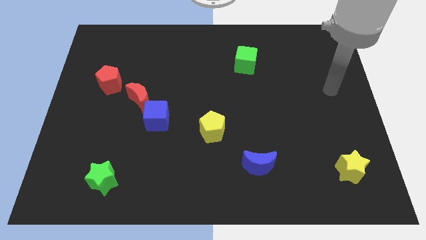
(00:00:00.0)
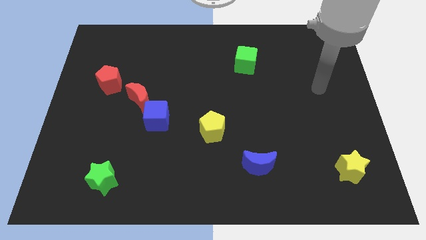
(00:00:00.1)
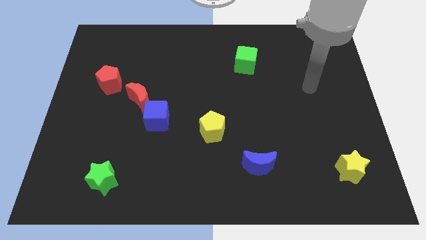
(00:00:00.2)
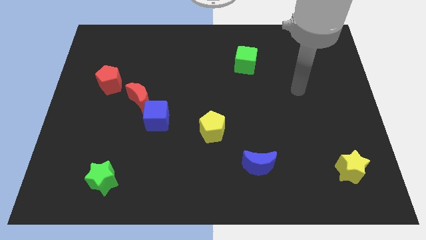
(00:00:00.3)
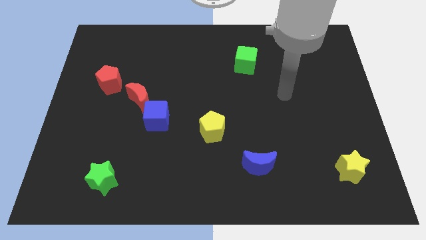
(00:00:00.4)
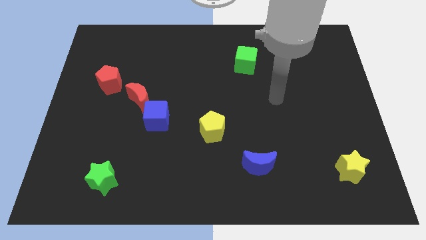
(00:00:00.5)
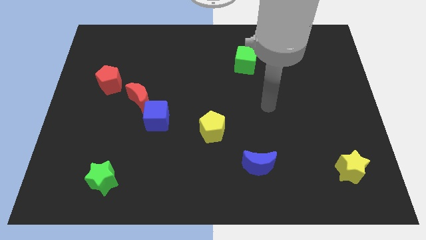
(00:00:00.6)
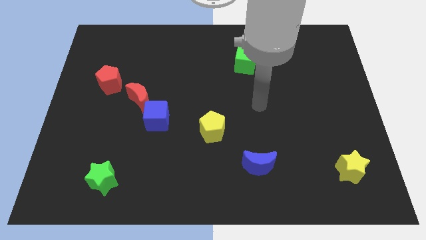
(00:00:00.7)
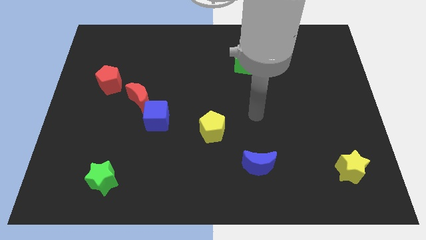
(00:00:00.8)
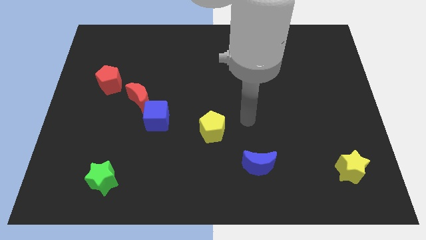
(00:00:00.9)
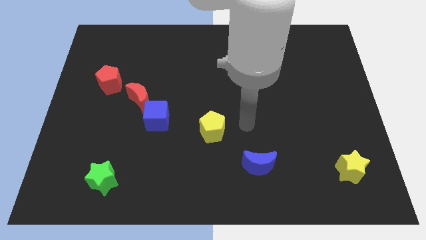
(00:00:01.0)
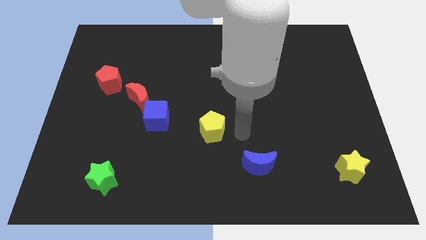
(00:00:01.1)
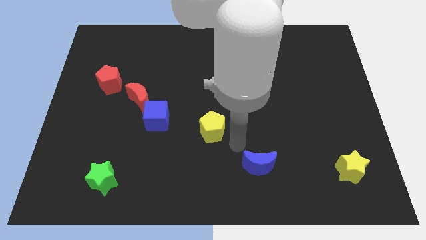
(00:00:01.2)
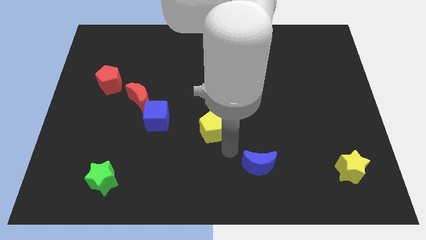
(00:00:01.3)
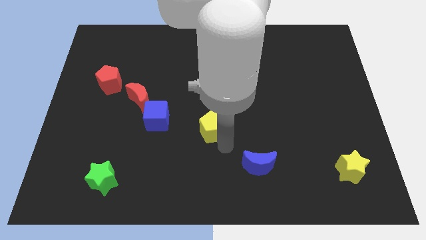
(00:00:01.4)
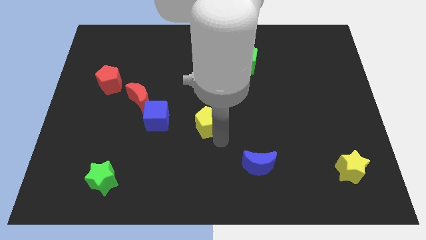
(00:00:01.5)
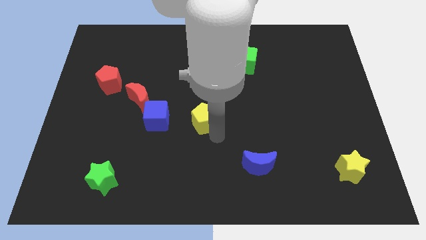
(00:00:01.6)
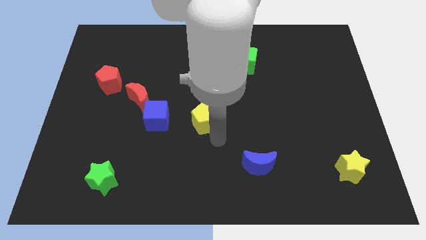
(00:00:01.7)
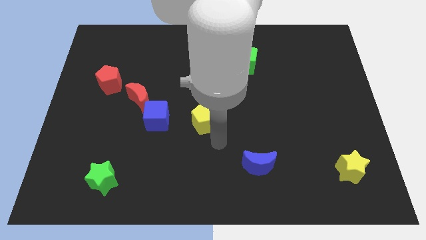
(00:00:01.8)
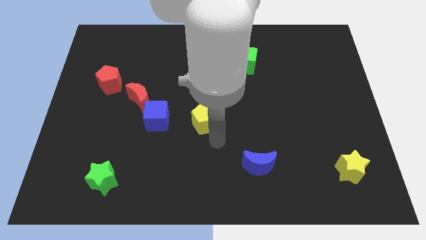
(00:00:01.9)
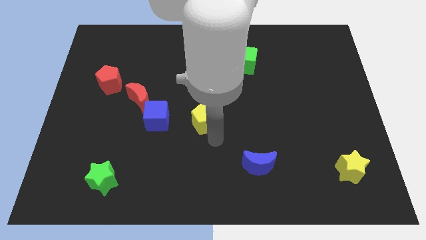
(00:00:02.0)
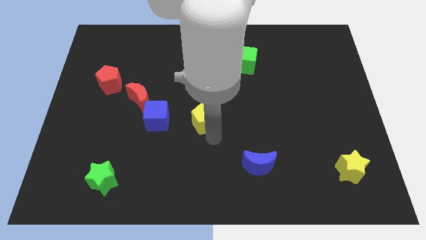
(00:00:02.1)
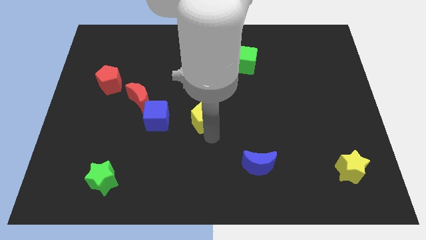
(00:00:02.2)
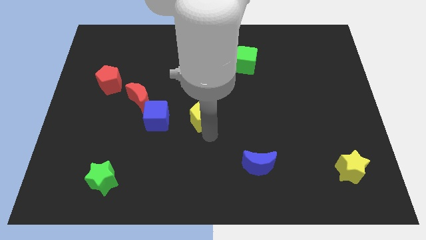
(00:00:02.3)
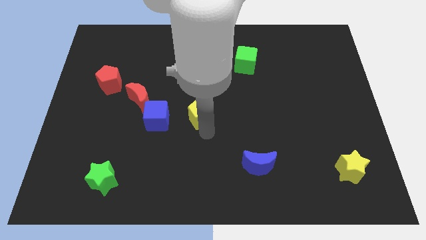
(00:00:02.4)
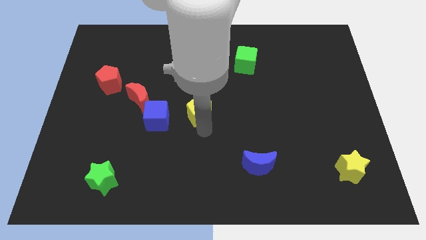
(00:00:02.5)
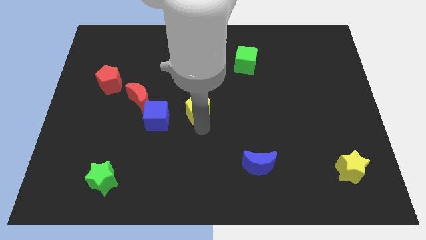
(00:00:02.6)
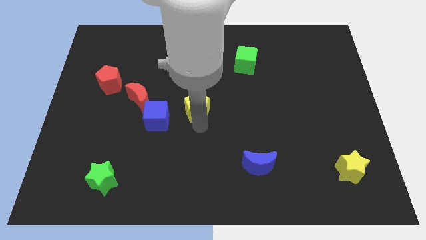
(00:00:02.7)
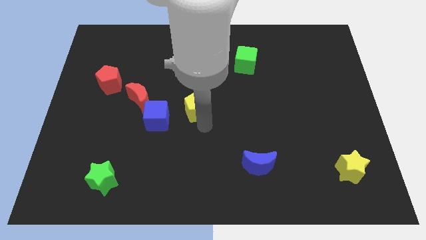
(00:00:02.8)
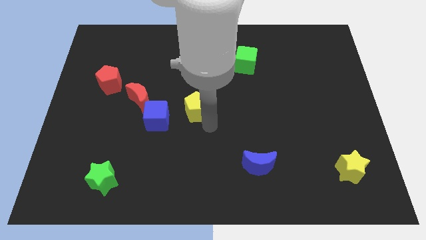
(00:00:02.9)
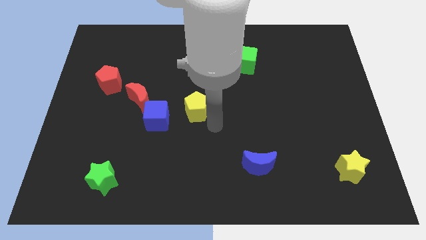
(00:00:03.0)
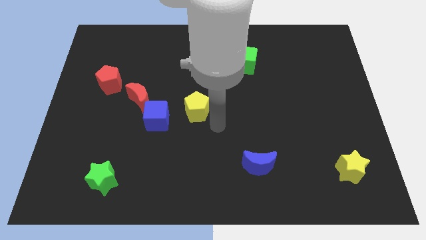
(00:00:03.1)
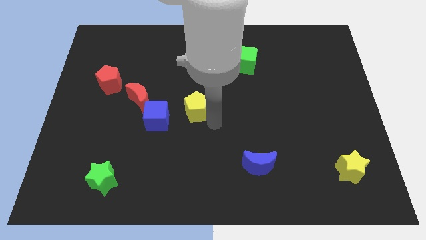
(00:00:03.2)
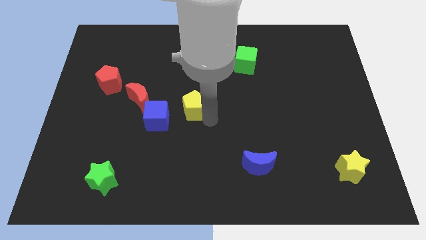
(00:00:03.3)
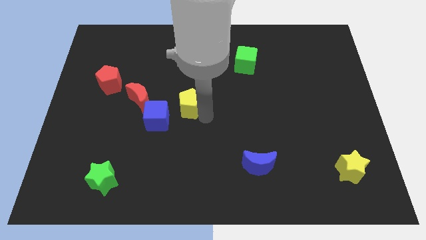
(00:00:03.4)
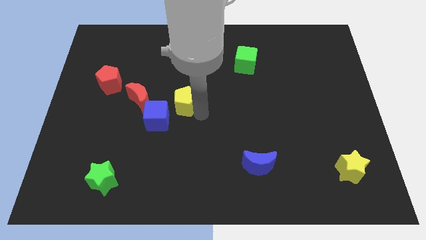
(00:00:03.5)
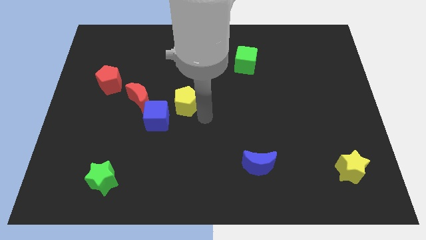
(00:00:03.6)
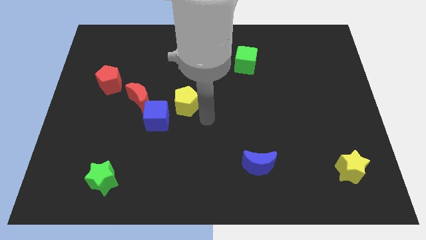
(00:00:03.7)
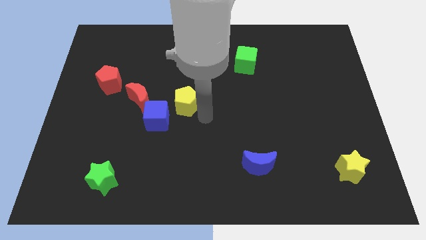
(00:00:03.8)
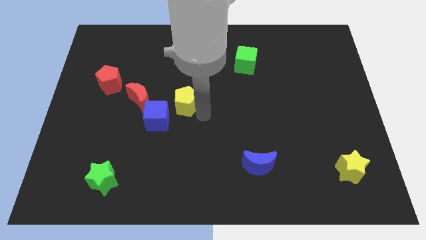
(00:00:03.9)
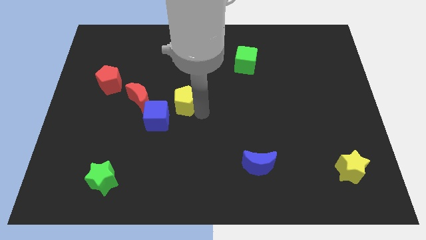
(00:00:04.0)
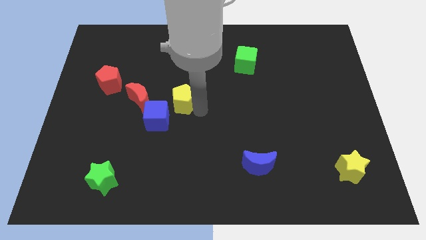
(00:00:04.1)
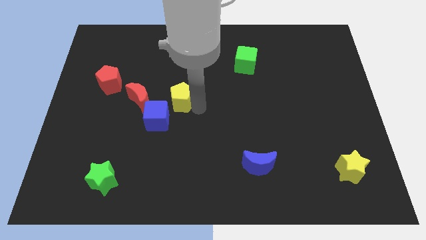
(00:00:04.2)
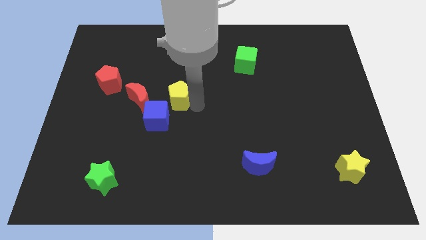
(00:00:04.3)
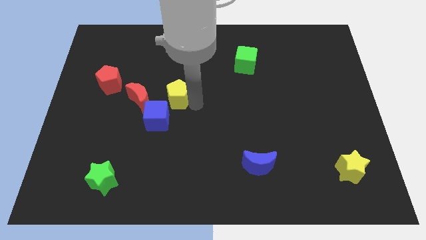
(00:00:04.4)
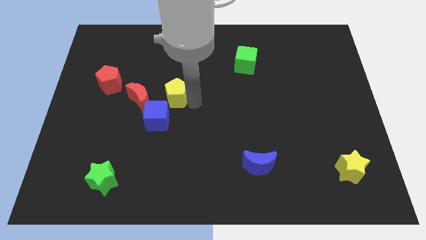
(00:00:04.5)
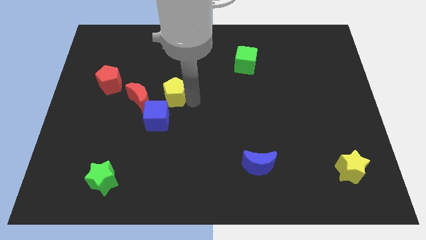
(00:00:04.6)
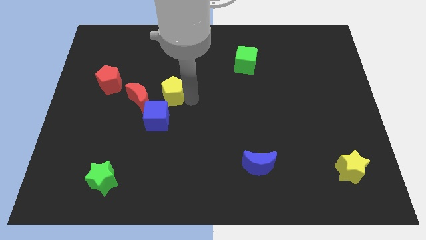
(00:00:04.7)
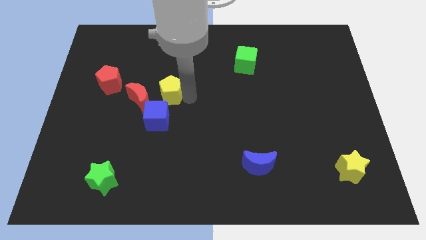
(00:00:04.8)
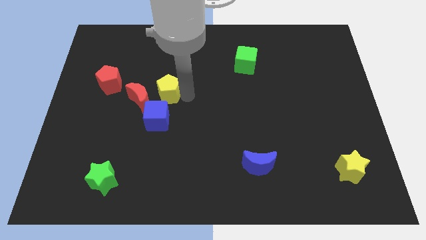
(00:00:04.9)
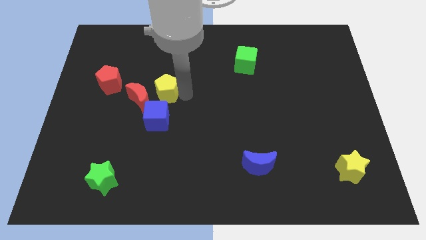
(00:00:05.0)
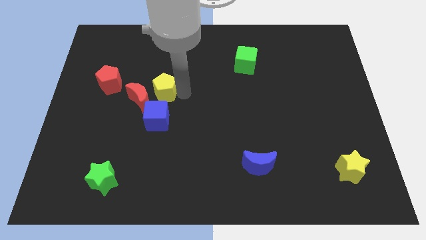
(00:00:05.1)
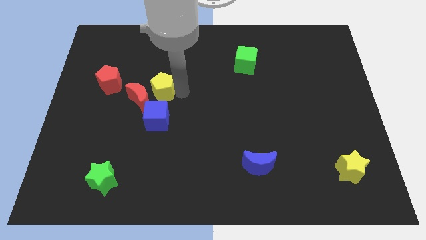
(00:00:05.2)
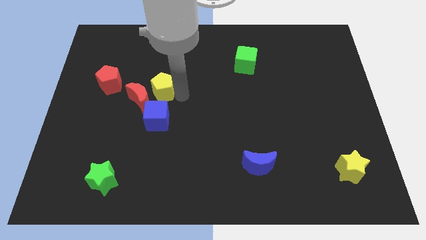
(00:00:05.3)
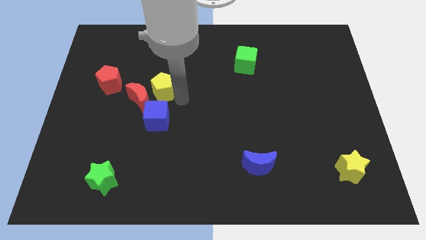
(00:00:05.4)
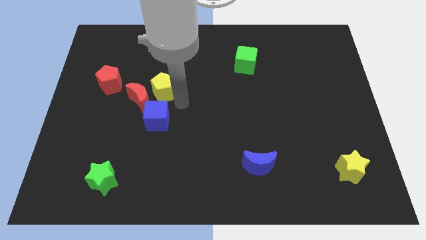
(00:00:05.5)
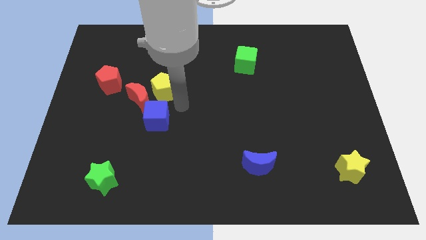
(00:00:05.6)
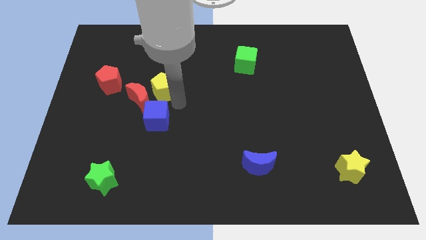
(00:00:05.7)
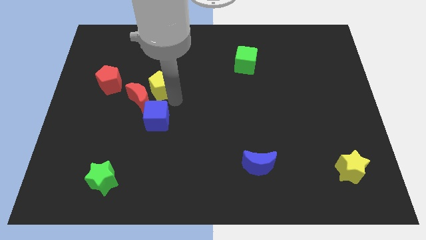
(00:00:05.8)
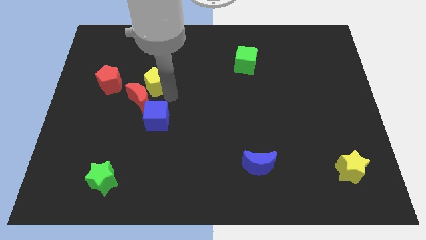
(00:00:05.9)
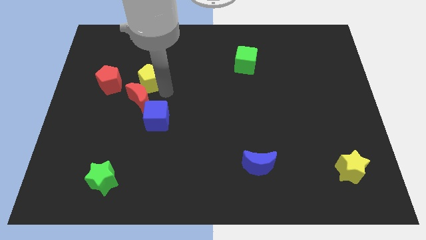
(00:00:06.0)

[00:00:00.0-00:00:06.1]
move the yellow pentagon diagonally upwards and to the left

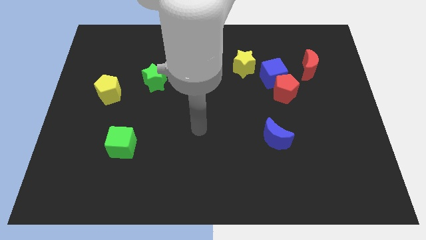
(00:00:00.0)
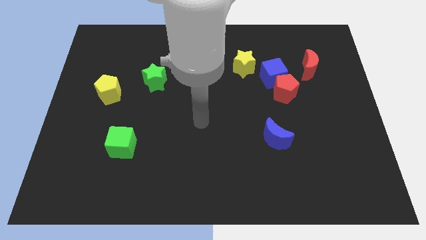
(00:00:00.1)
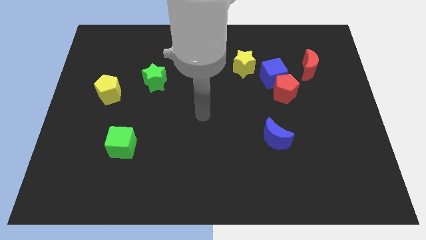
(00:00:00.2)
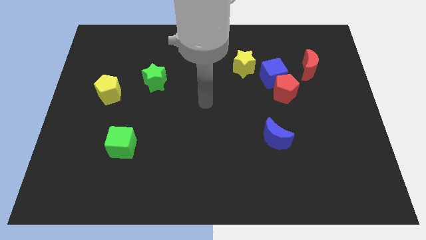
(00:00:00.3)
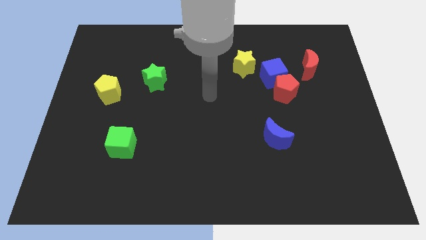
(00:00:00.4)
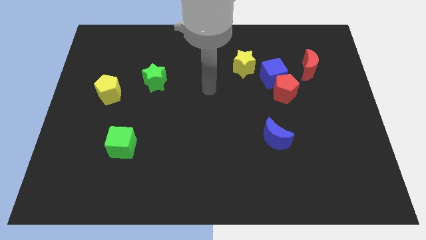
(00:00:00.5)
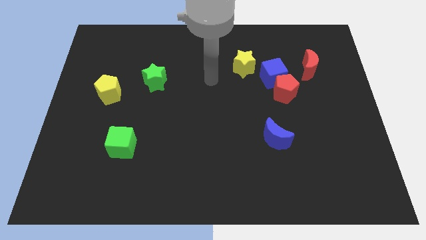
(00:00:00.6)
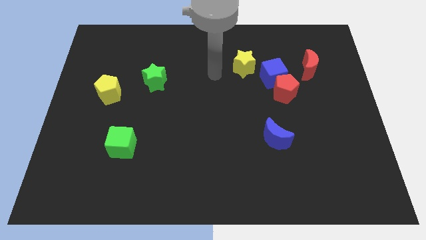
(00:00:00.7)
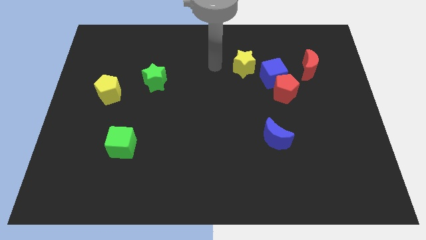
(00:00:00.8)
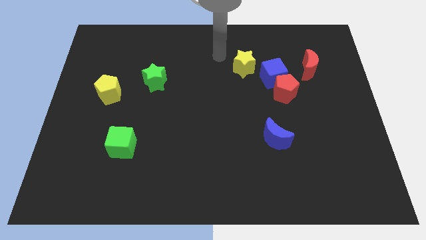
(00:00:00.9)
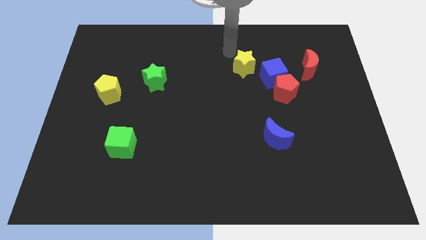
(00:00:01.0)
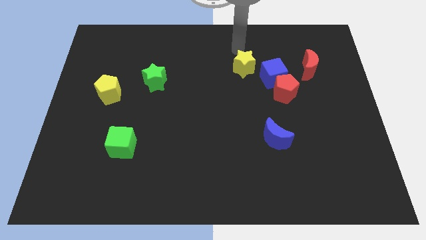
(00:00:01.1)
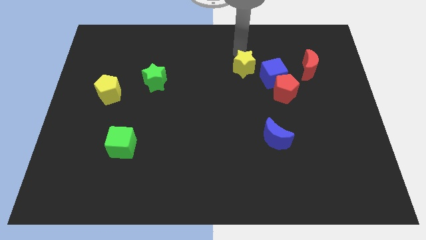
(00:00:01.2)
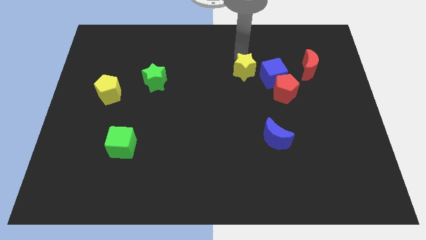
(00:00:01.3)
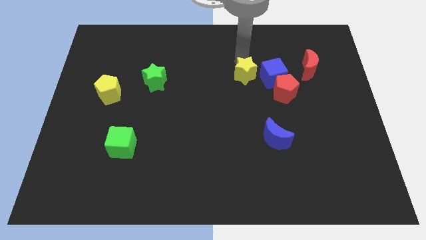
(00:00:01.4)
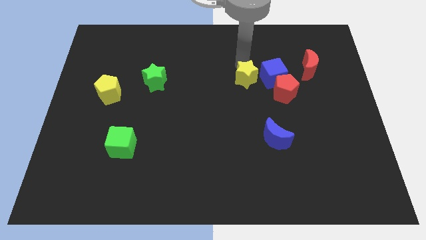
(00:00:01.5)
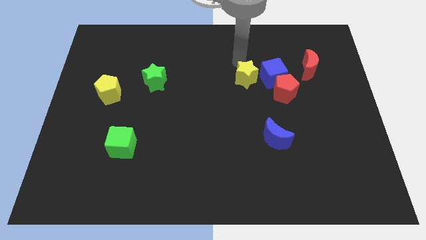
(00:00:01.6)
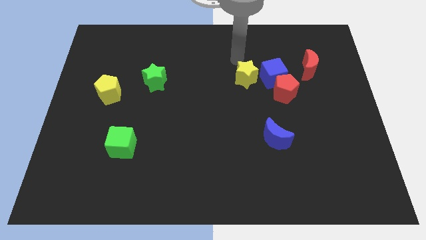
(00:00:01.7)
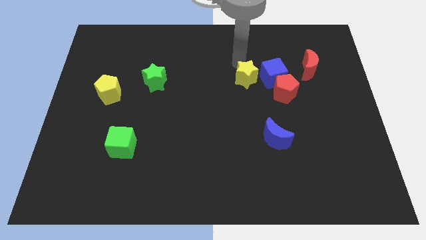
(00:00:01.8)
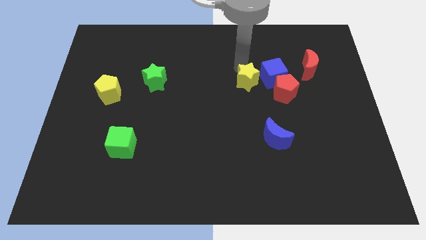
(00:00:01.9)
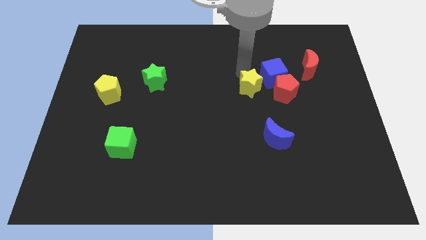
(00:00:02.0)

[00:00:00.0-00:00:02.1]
slide the yellow star slightly down
